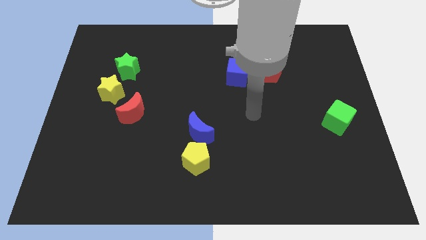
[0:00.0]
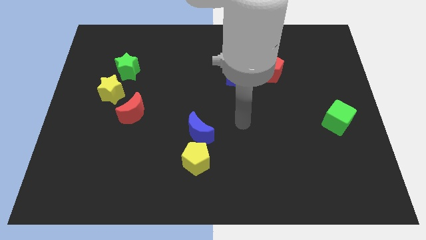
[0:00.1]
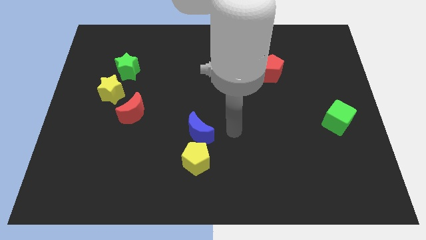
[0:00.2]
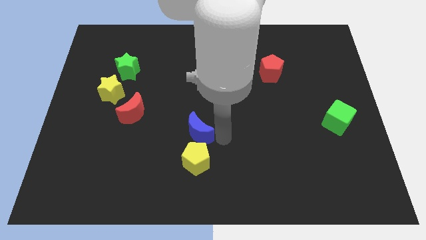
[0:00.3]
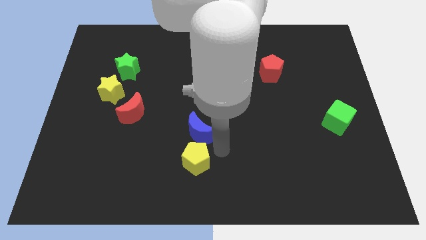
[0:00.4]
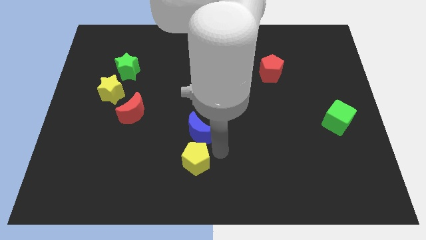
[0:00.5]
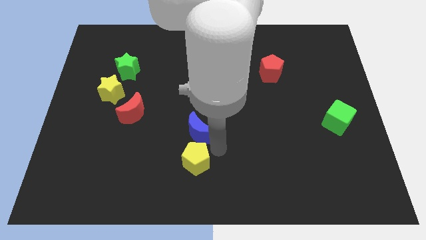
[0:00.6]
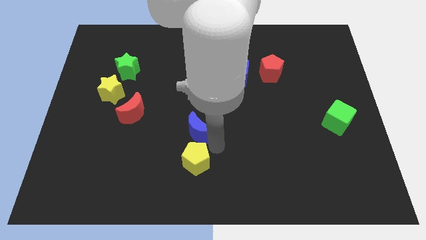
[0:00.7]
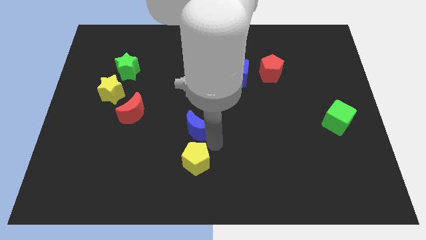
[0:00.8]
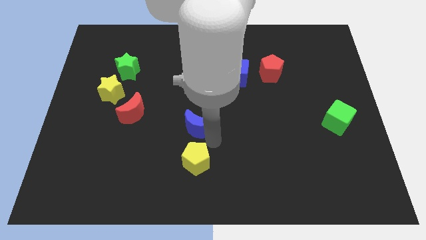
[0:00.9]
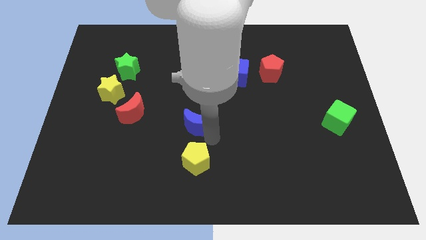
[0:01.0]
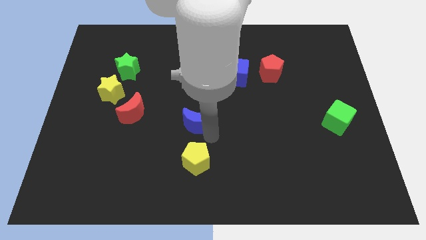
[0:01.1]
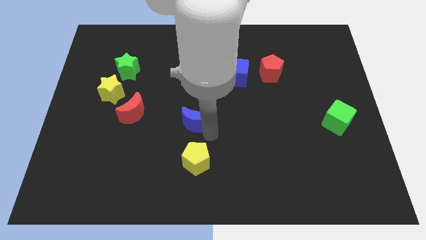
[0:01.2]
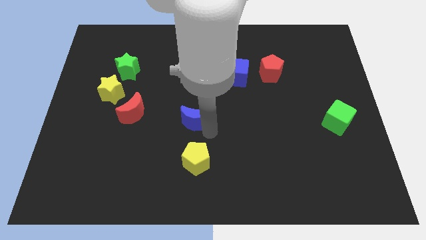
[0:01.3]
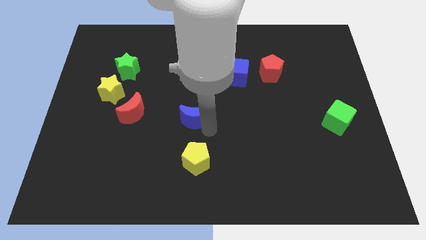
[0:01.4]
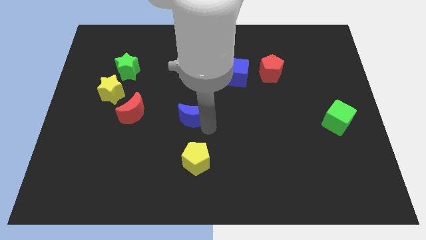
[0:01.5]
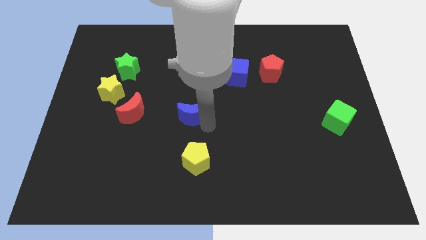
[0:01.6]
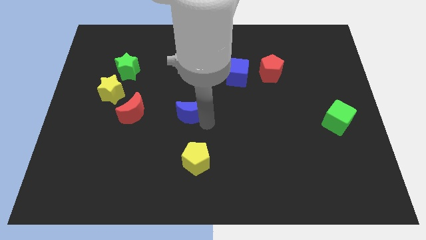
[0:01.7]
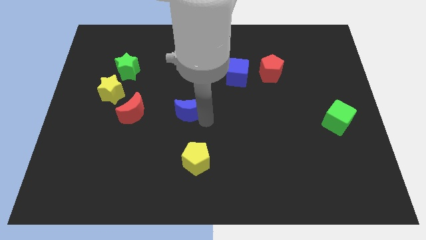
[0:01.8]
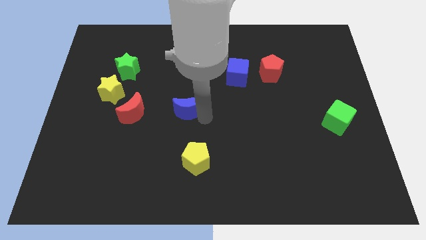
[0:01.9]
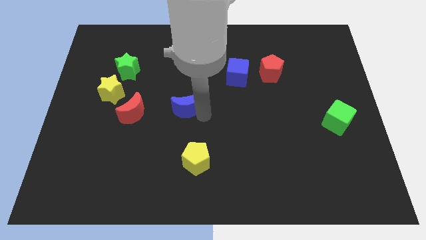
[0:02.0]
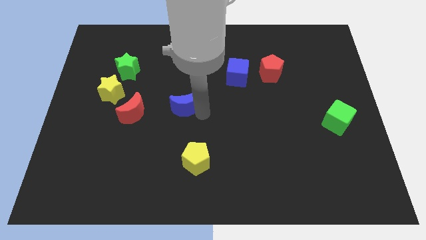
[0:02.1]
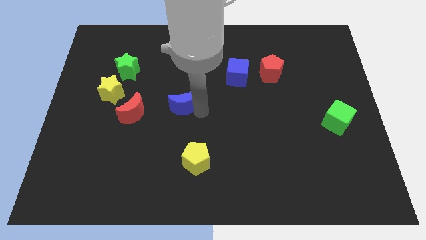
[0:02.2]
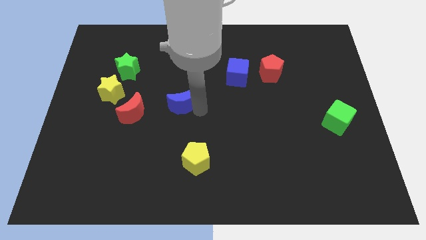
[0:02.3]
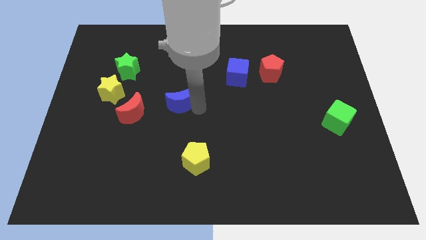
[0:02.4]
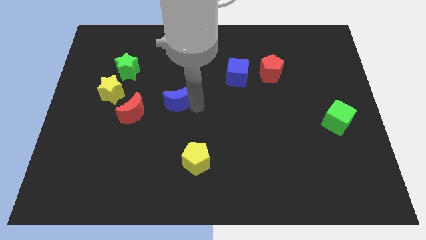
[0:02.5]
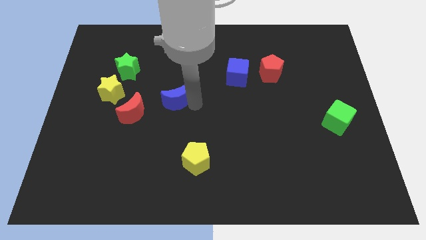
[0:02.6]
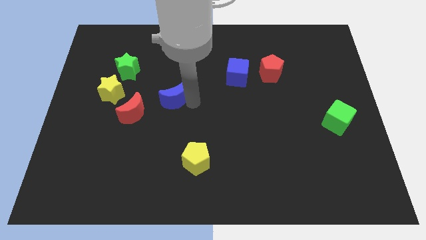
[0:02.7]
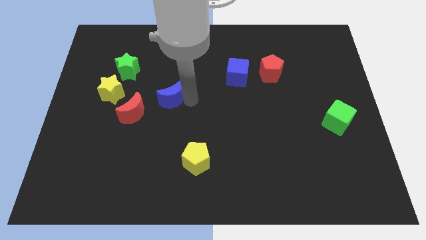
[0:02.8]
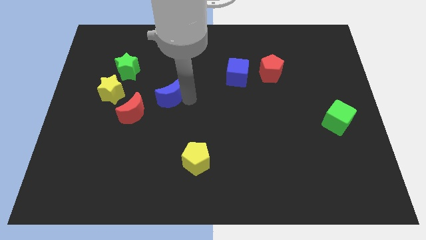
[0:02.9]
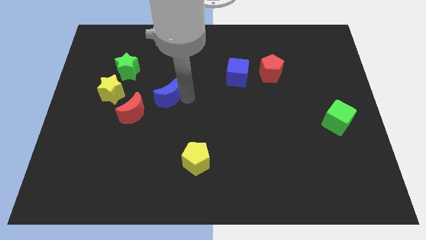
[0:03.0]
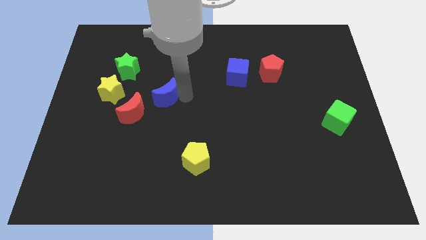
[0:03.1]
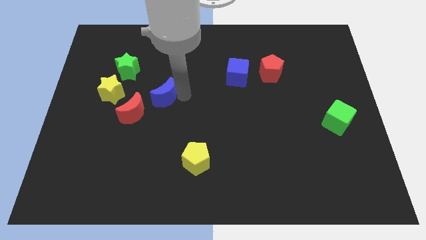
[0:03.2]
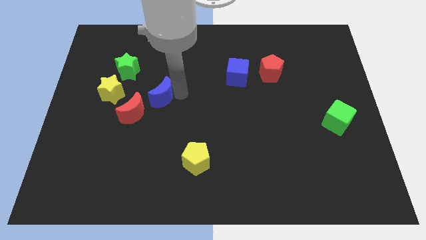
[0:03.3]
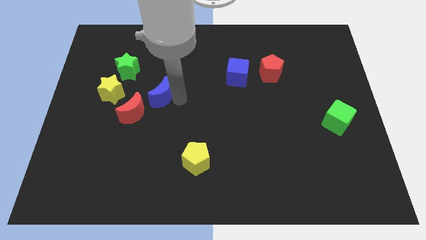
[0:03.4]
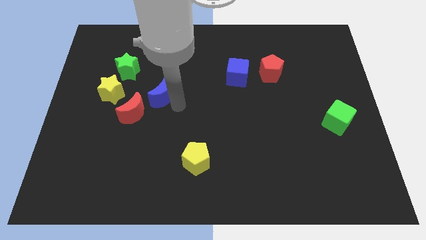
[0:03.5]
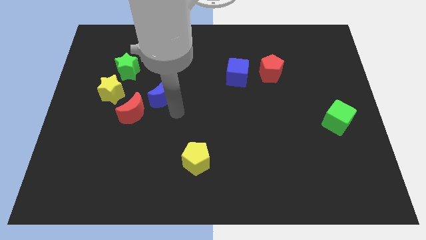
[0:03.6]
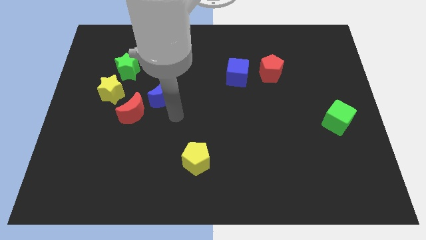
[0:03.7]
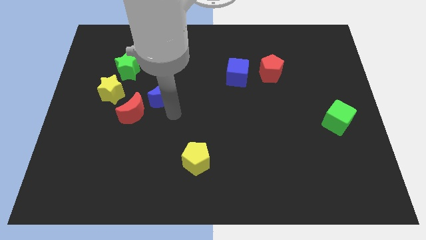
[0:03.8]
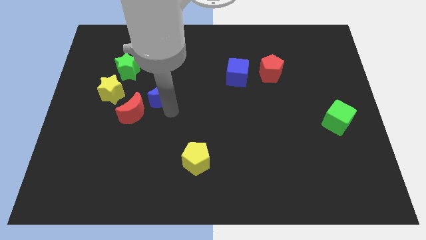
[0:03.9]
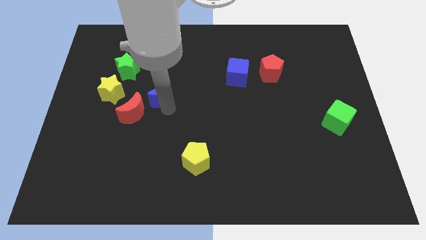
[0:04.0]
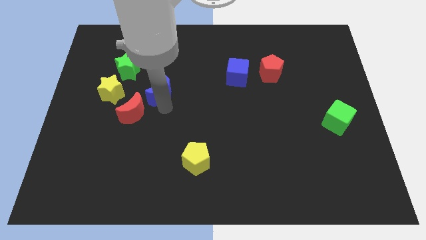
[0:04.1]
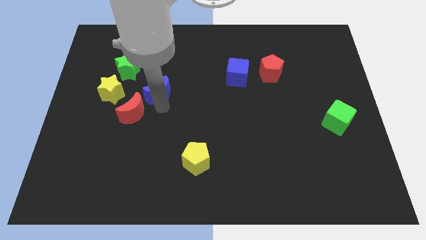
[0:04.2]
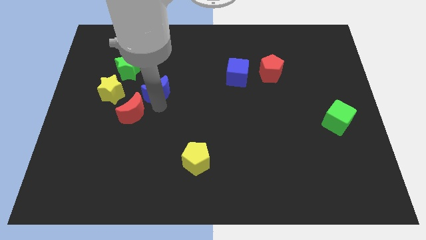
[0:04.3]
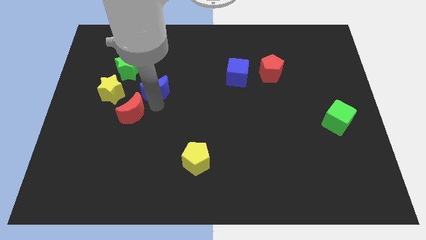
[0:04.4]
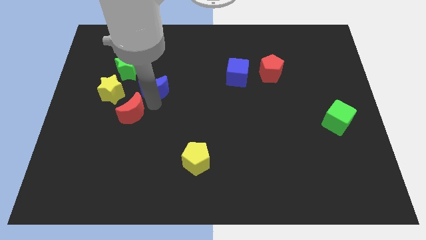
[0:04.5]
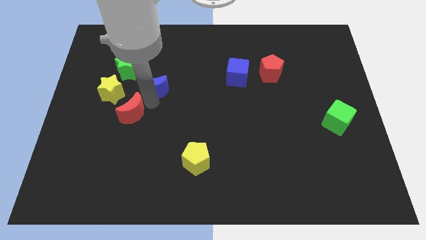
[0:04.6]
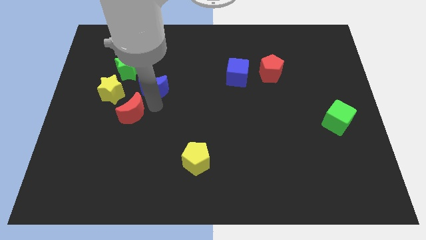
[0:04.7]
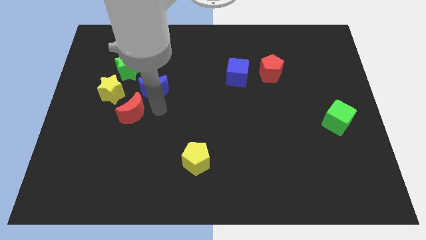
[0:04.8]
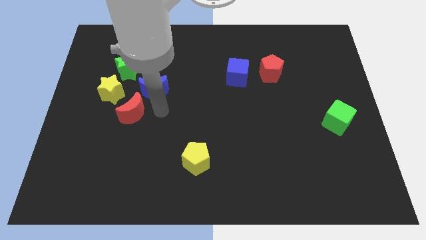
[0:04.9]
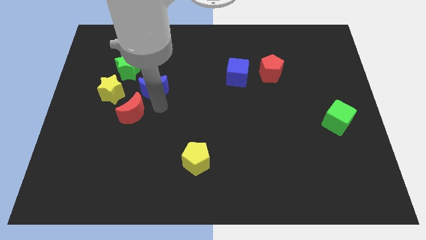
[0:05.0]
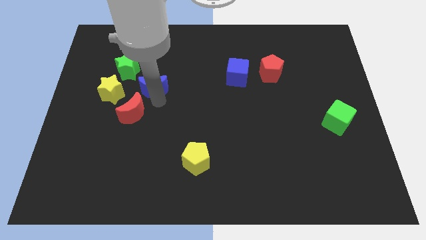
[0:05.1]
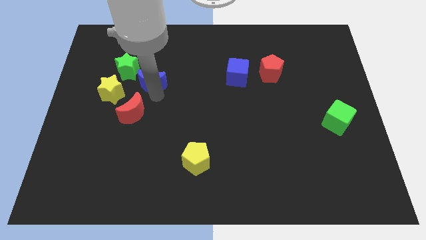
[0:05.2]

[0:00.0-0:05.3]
slide the blue moon diagonally up and to the right of the yellow star

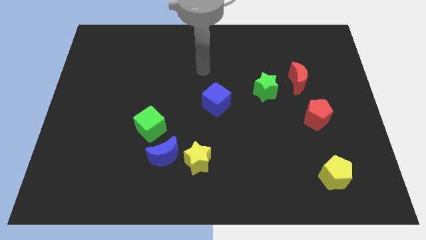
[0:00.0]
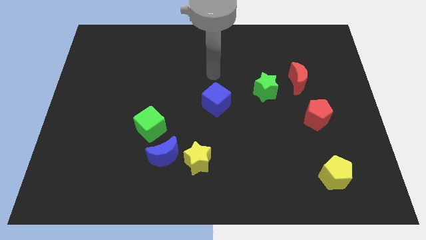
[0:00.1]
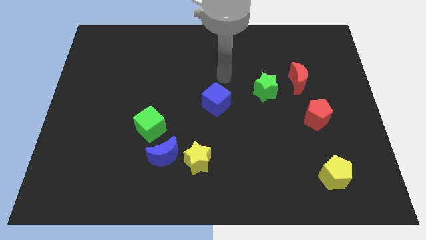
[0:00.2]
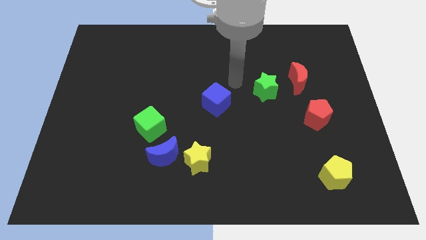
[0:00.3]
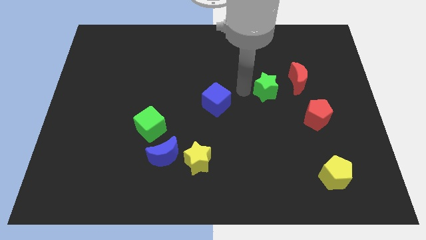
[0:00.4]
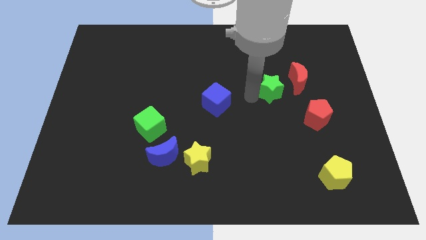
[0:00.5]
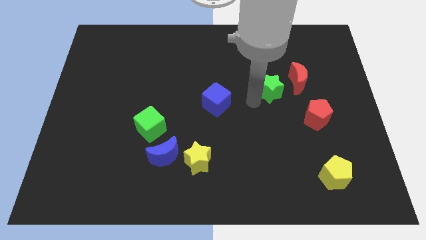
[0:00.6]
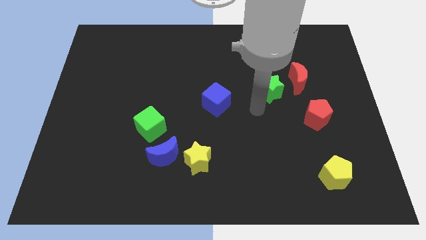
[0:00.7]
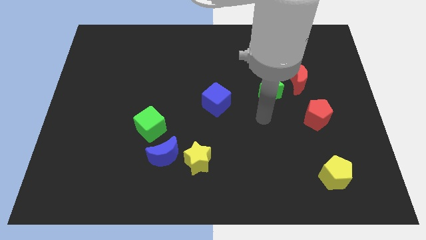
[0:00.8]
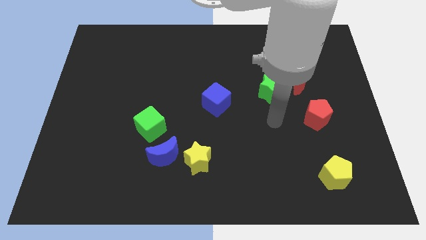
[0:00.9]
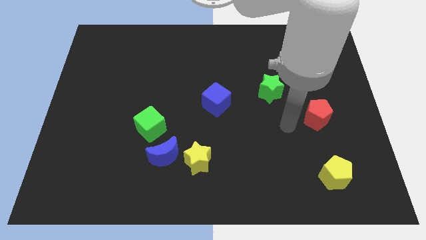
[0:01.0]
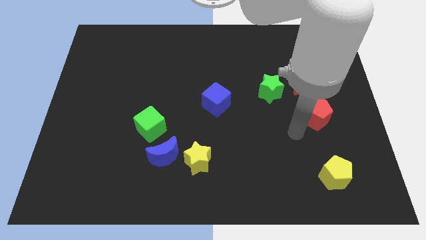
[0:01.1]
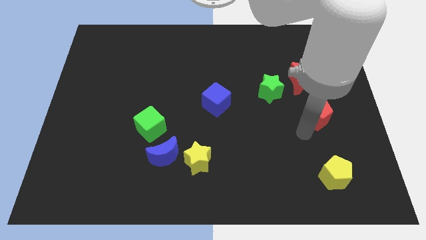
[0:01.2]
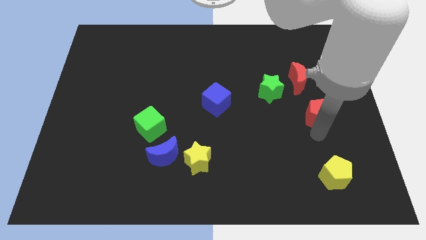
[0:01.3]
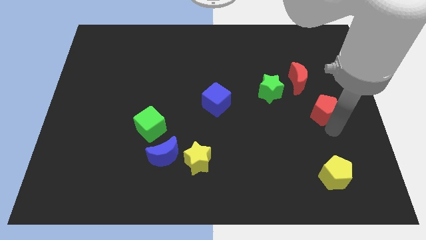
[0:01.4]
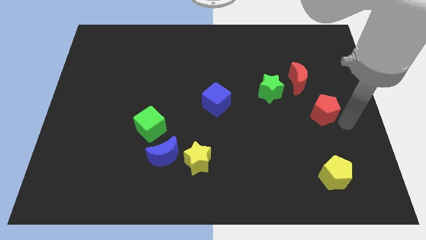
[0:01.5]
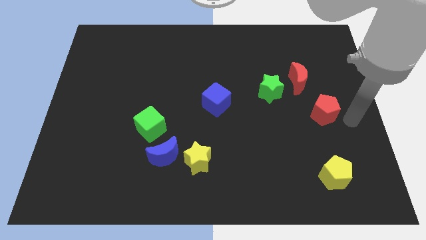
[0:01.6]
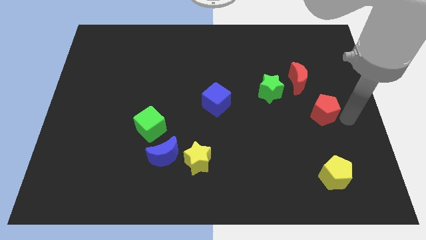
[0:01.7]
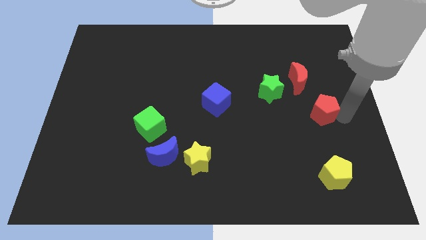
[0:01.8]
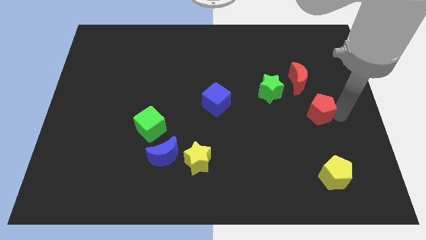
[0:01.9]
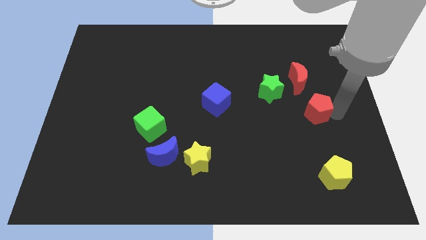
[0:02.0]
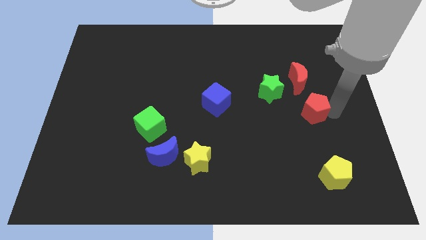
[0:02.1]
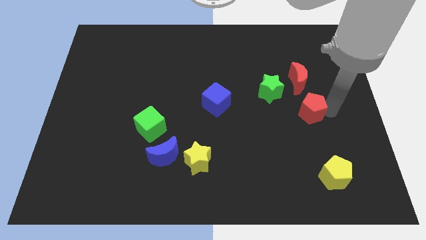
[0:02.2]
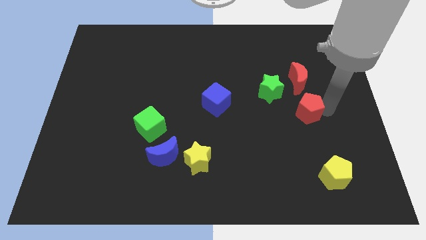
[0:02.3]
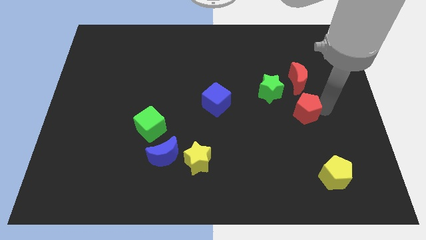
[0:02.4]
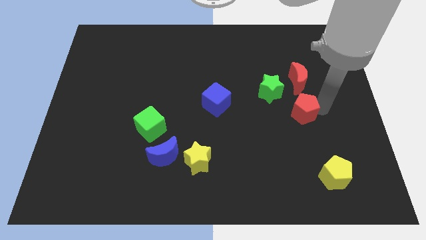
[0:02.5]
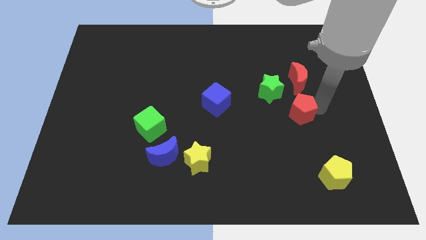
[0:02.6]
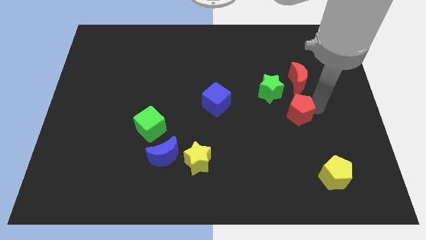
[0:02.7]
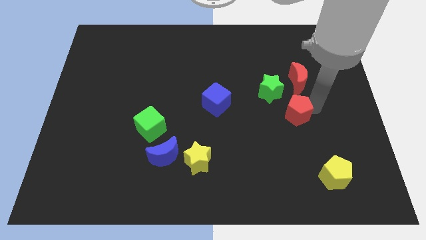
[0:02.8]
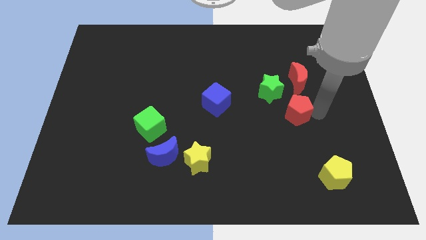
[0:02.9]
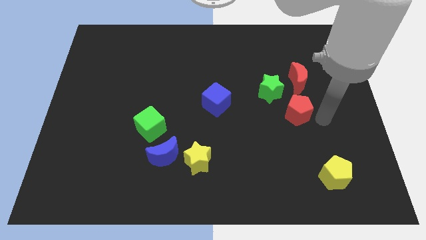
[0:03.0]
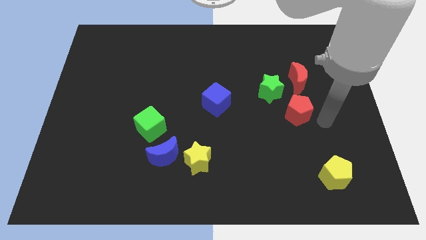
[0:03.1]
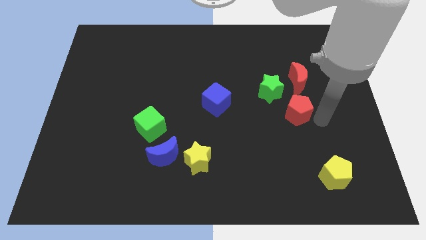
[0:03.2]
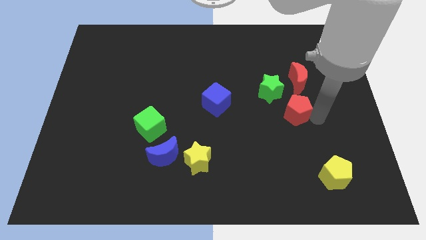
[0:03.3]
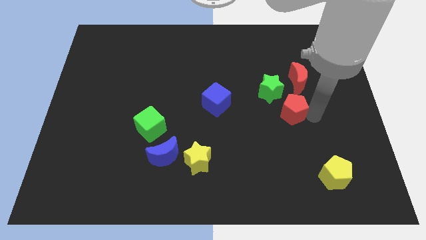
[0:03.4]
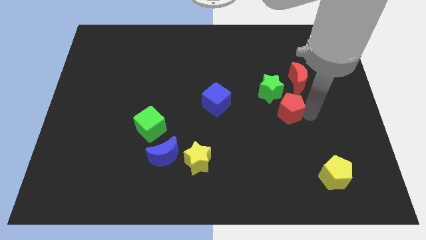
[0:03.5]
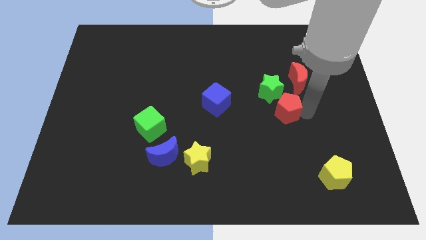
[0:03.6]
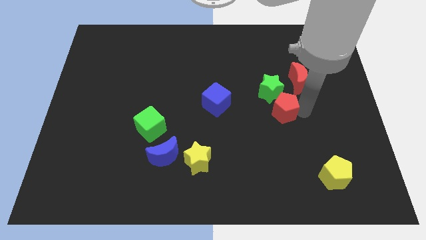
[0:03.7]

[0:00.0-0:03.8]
put the red pentagon right of the blue cube
